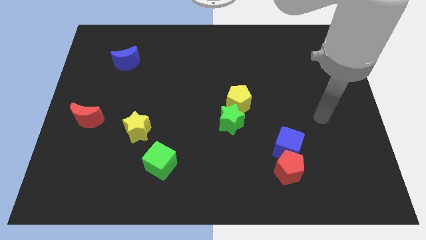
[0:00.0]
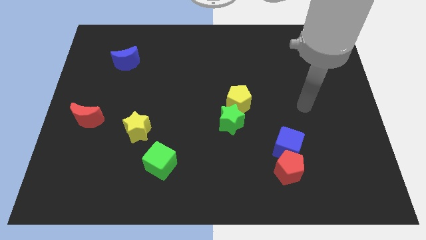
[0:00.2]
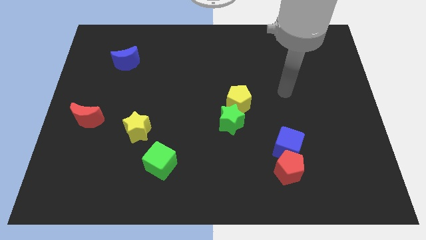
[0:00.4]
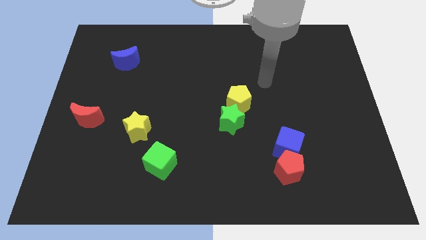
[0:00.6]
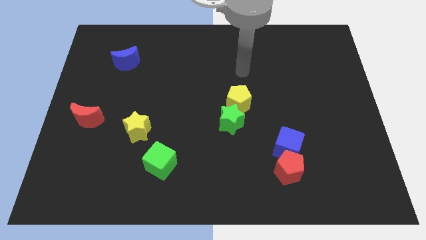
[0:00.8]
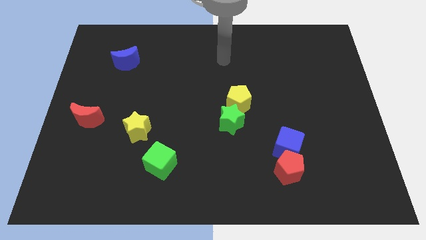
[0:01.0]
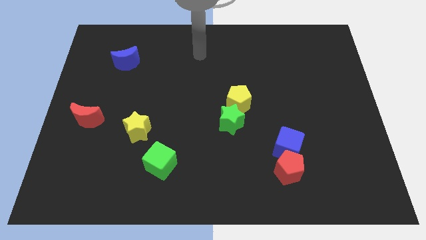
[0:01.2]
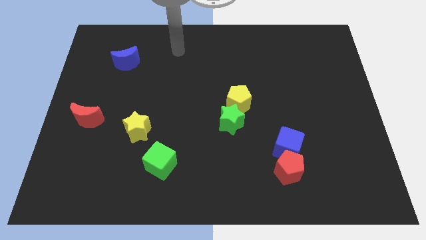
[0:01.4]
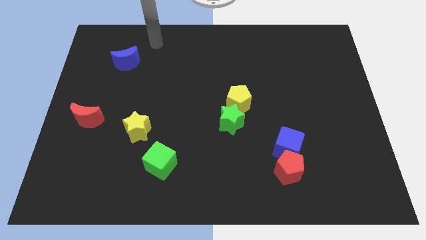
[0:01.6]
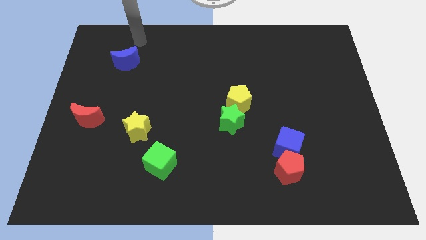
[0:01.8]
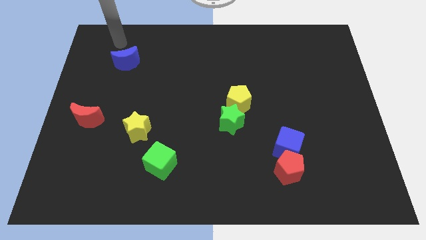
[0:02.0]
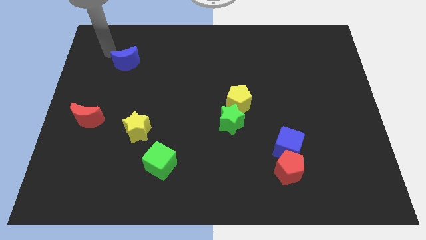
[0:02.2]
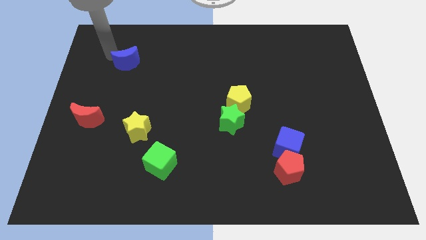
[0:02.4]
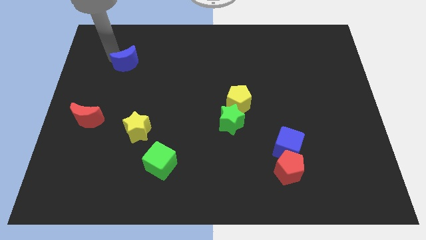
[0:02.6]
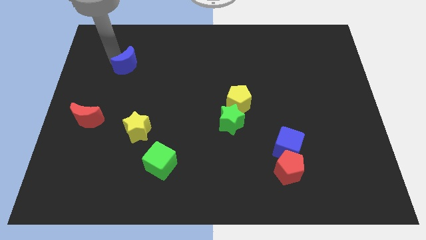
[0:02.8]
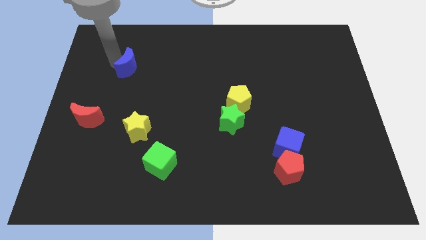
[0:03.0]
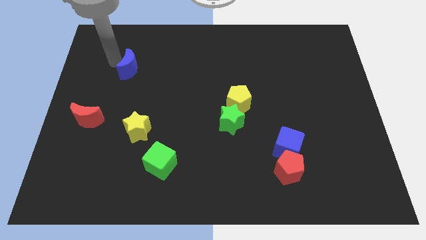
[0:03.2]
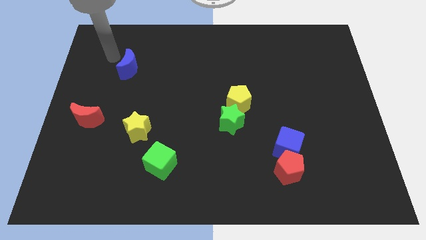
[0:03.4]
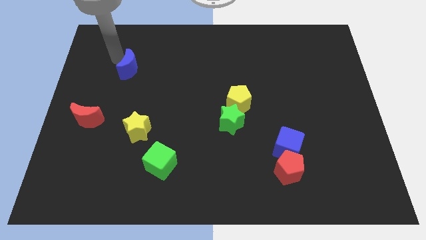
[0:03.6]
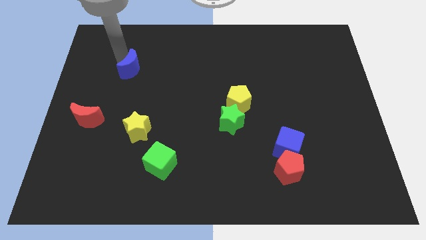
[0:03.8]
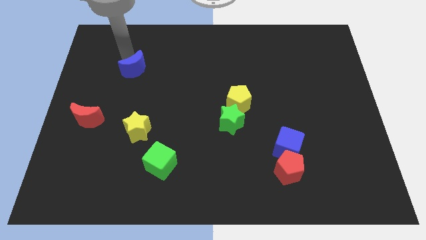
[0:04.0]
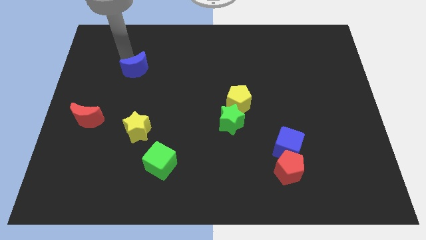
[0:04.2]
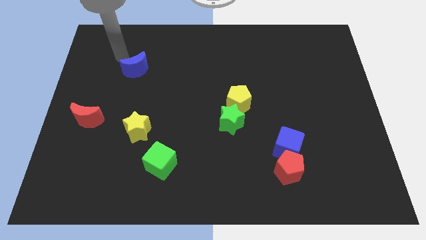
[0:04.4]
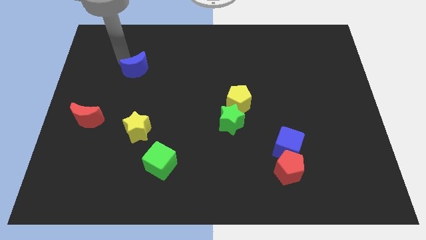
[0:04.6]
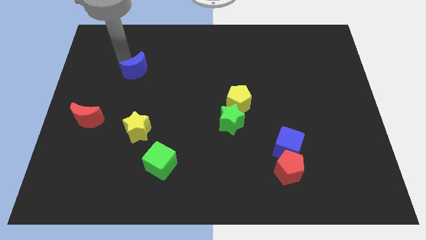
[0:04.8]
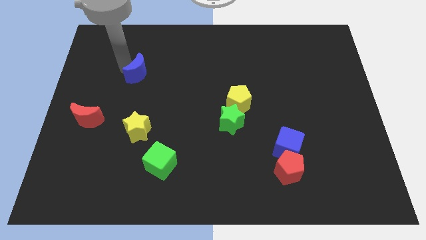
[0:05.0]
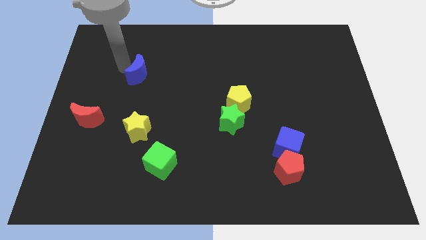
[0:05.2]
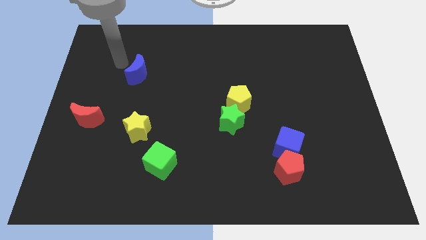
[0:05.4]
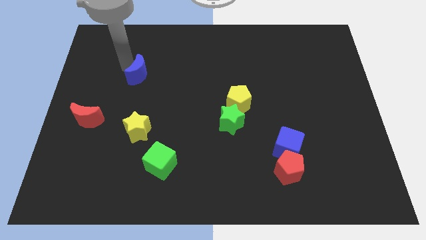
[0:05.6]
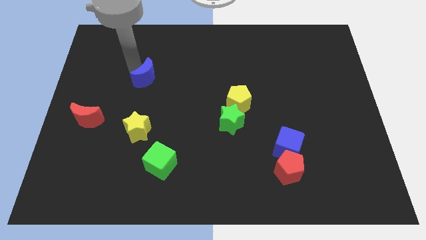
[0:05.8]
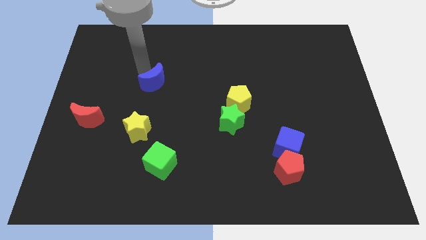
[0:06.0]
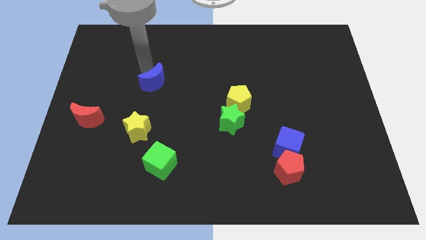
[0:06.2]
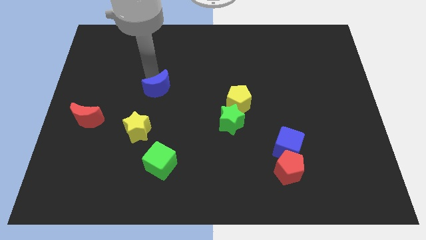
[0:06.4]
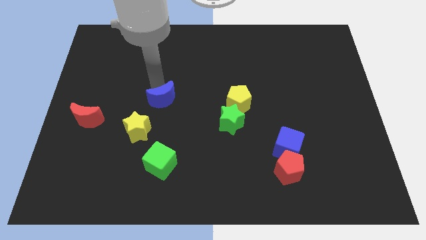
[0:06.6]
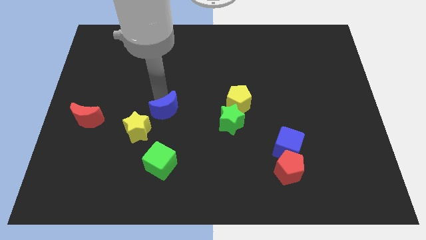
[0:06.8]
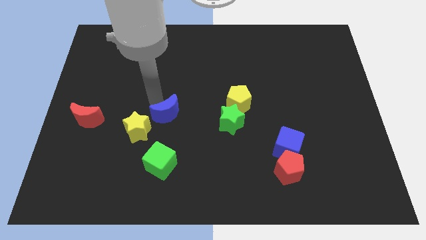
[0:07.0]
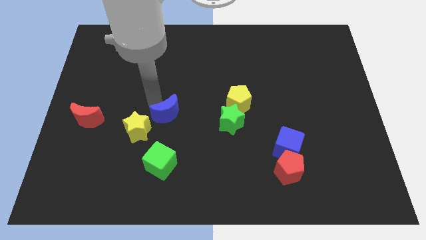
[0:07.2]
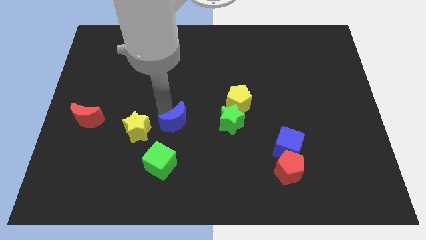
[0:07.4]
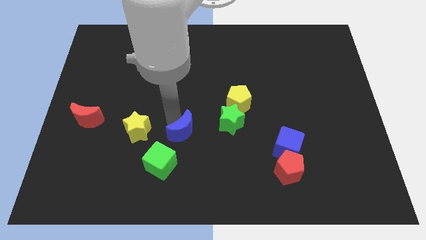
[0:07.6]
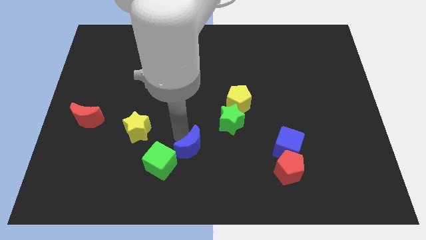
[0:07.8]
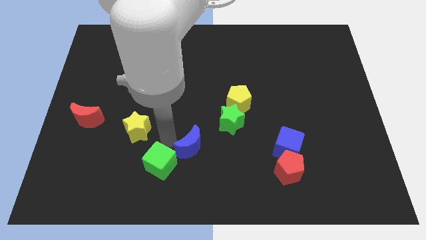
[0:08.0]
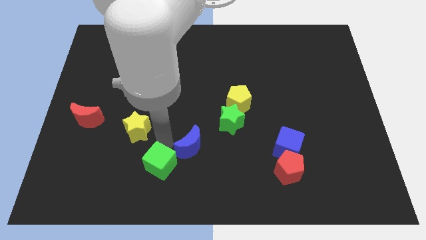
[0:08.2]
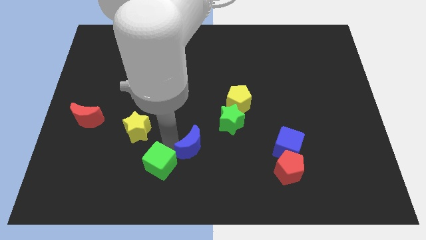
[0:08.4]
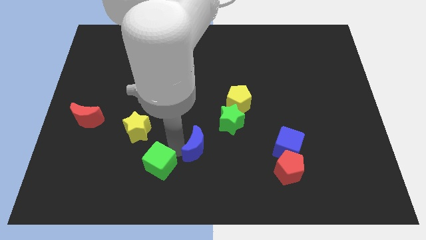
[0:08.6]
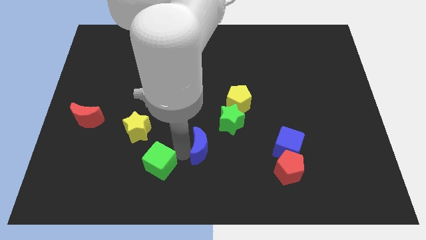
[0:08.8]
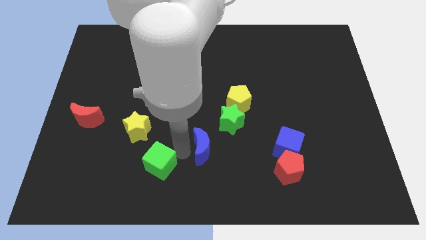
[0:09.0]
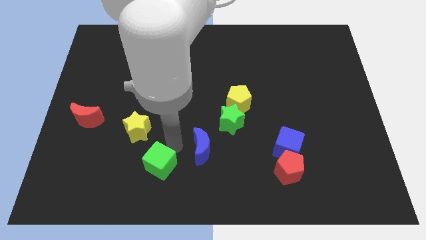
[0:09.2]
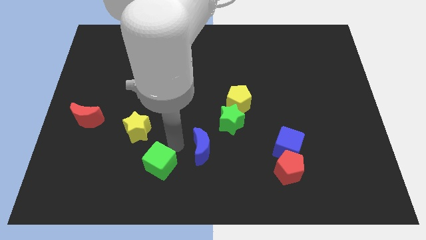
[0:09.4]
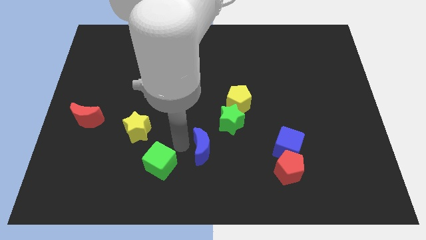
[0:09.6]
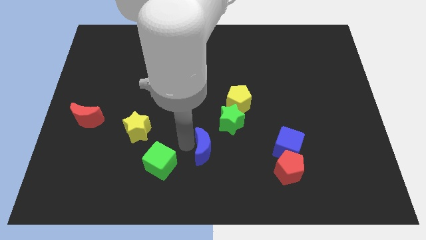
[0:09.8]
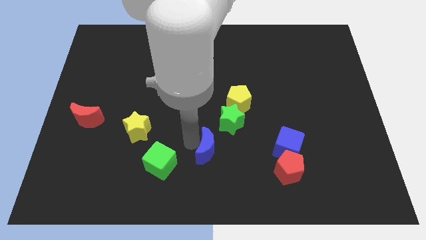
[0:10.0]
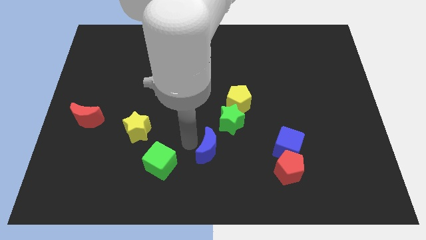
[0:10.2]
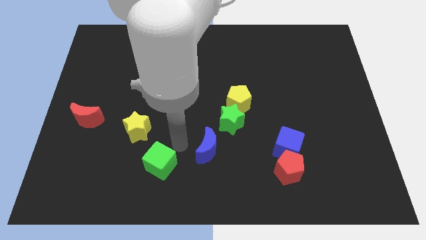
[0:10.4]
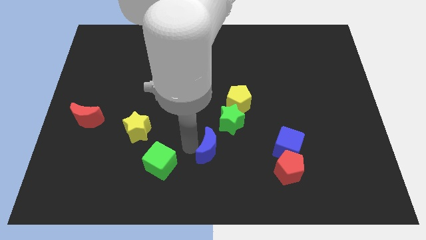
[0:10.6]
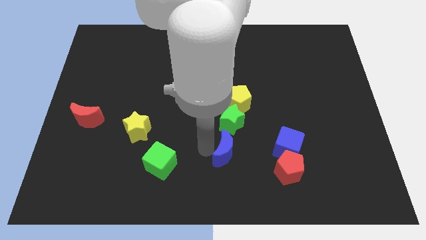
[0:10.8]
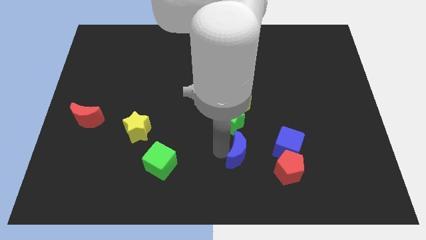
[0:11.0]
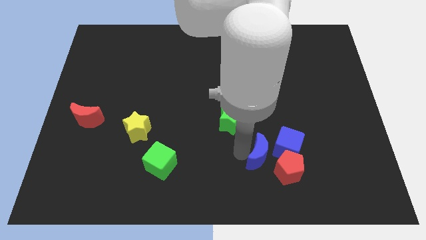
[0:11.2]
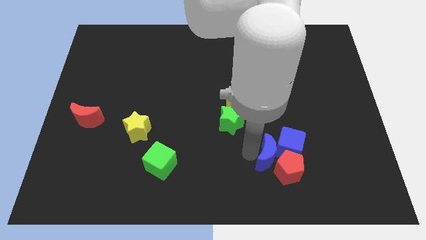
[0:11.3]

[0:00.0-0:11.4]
slide the blue moon towards the red pentagon

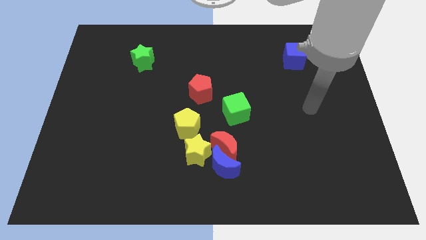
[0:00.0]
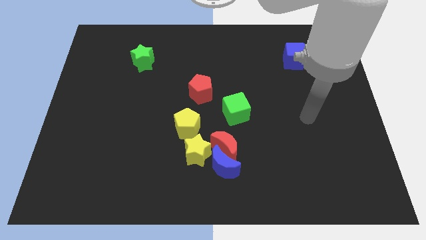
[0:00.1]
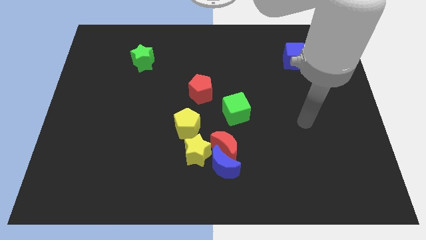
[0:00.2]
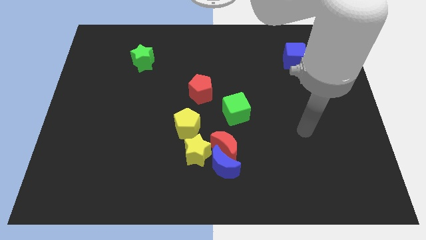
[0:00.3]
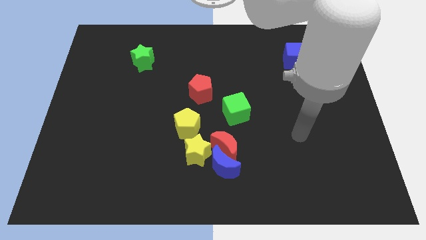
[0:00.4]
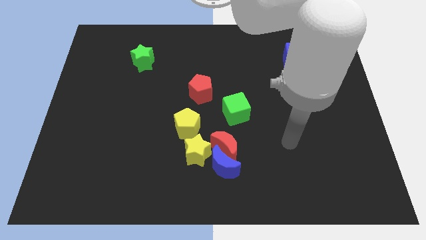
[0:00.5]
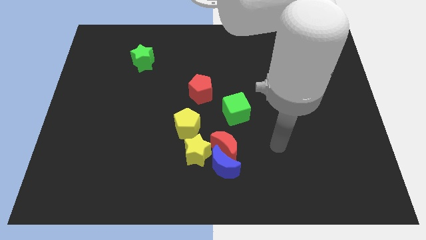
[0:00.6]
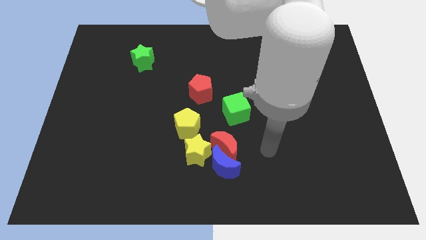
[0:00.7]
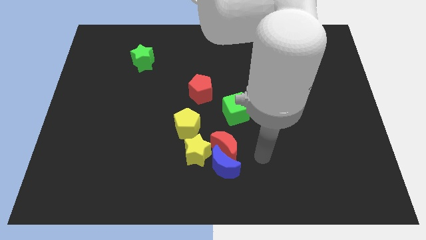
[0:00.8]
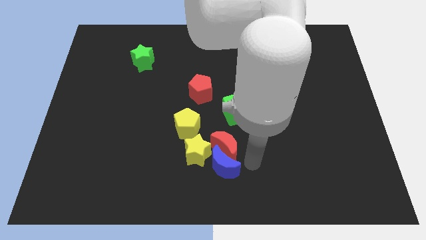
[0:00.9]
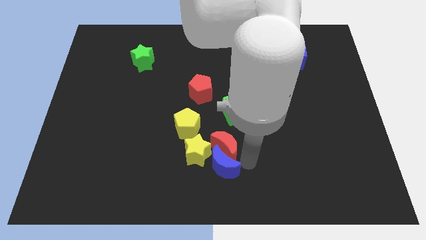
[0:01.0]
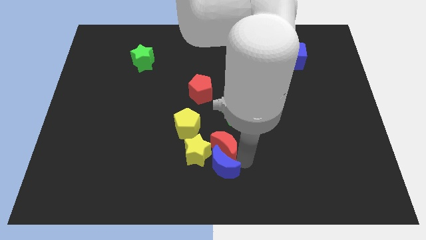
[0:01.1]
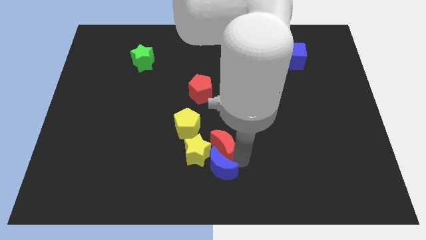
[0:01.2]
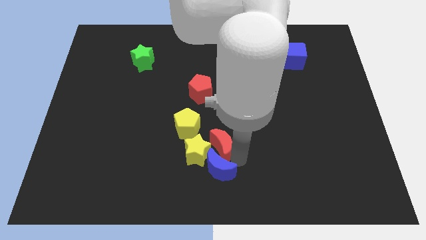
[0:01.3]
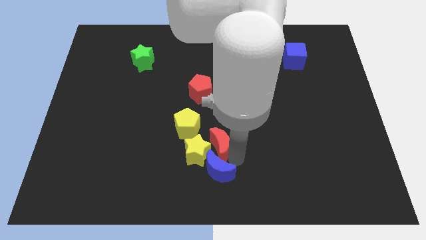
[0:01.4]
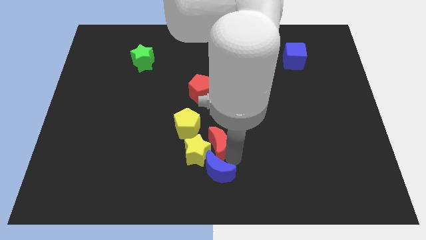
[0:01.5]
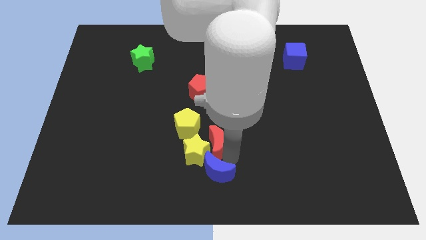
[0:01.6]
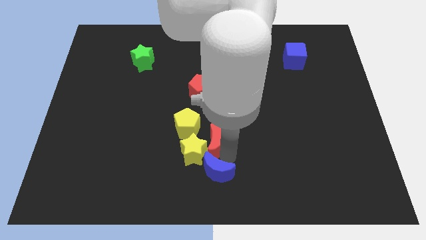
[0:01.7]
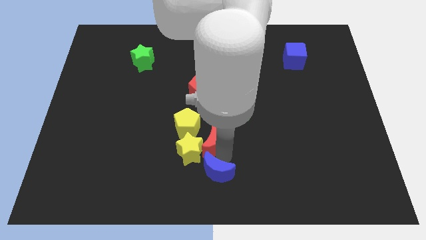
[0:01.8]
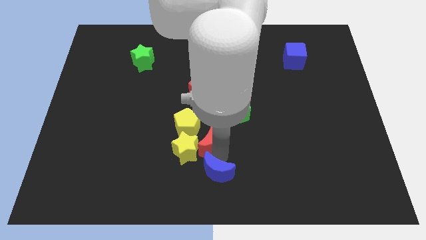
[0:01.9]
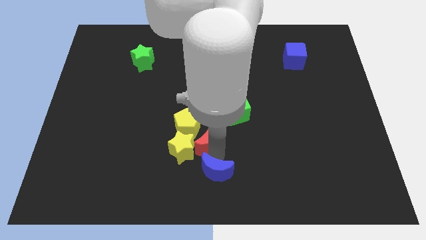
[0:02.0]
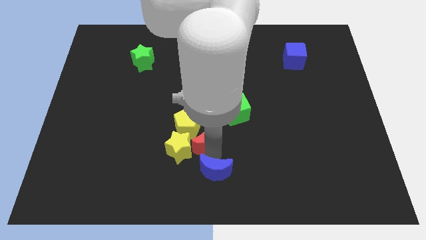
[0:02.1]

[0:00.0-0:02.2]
slide the red moon close to the yellow pentagon
